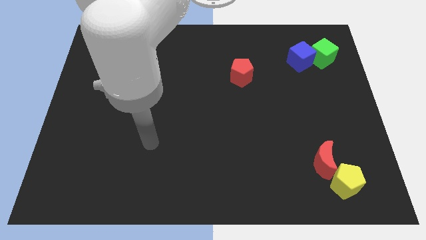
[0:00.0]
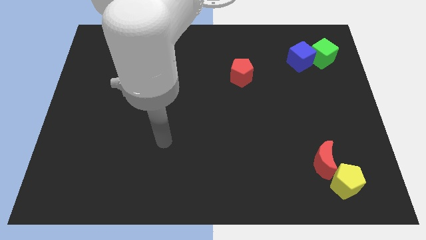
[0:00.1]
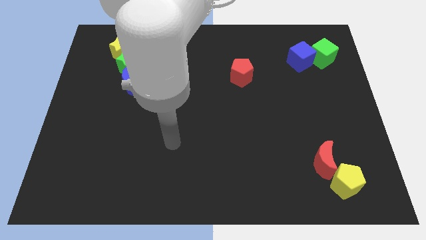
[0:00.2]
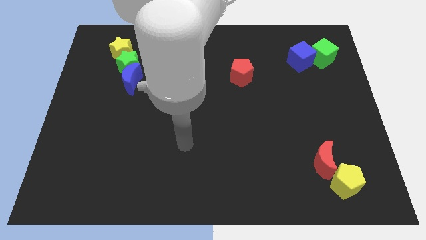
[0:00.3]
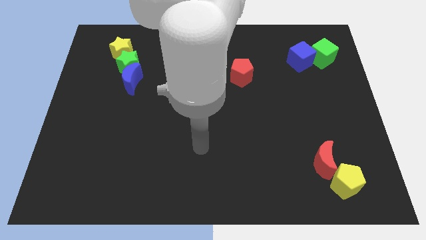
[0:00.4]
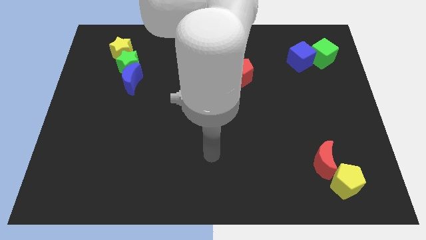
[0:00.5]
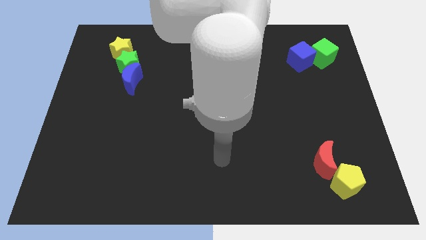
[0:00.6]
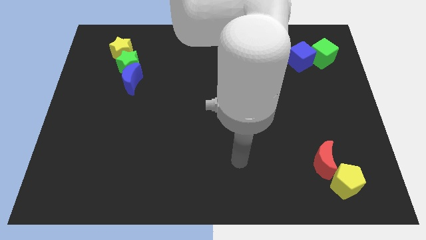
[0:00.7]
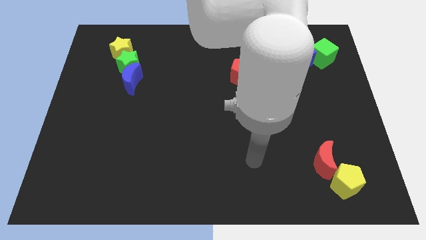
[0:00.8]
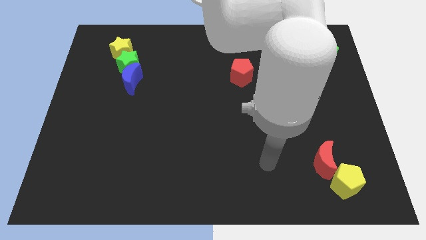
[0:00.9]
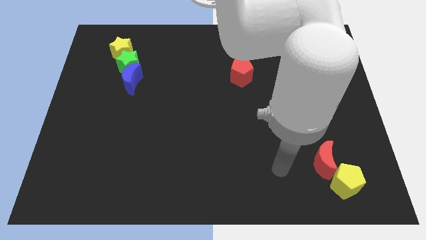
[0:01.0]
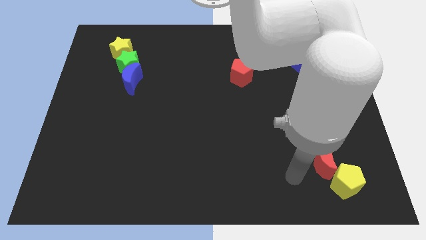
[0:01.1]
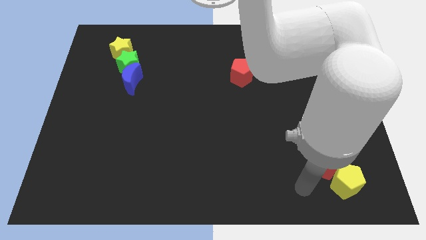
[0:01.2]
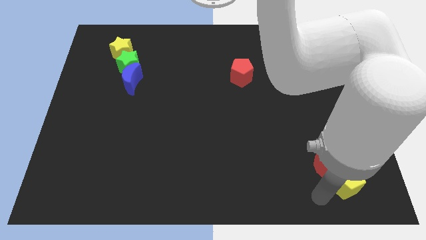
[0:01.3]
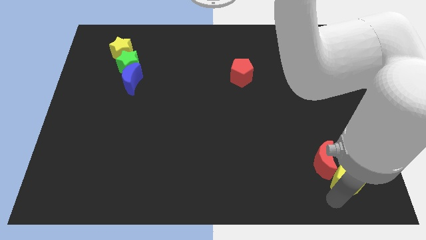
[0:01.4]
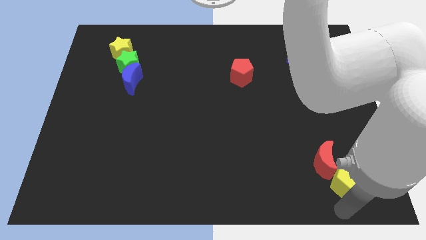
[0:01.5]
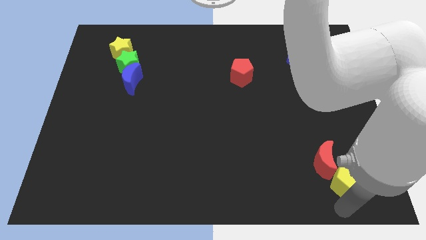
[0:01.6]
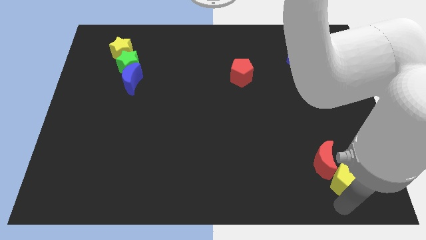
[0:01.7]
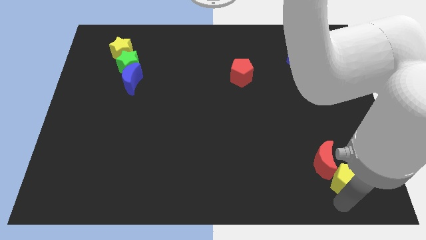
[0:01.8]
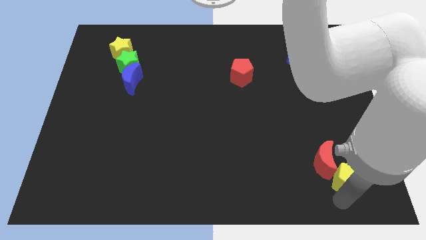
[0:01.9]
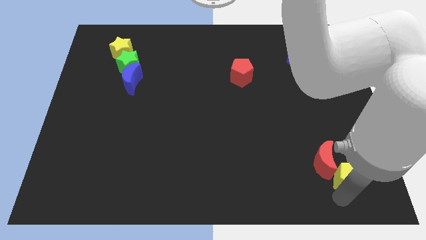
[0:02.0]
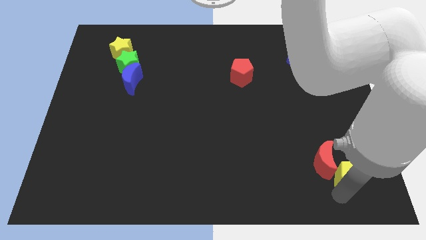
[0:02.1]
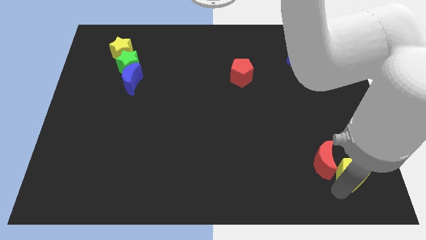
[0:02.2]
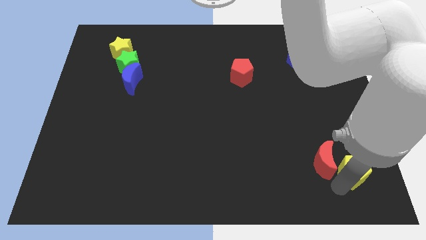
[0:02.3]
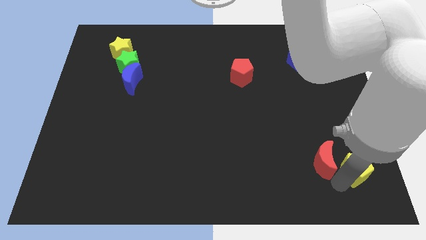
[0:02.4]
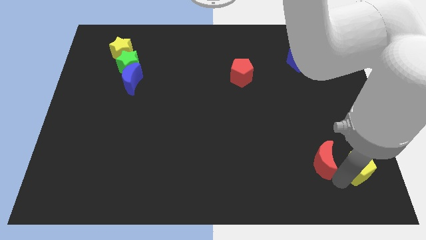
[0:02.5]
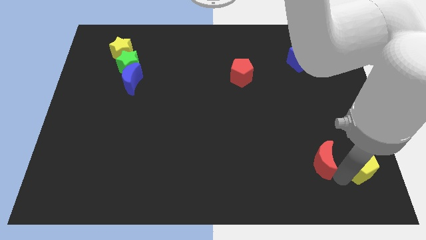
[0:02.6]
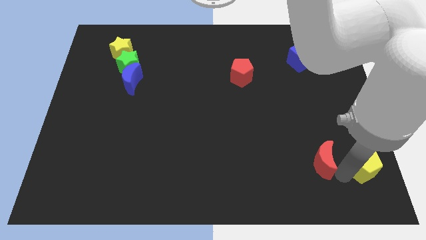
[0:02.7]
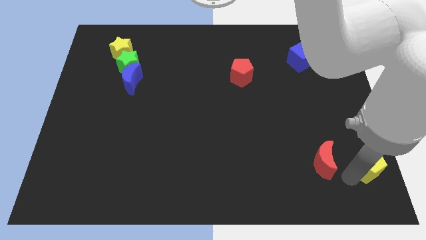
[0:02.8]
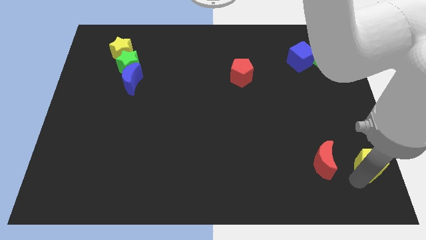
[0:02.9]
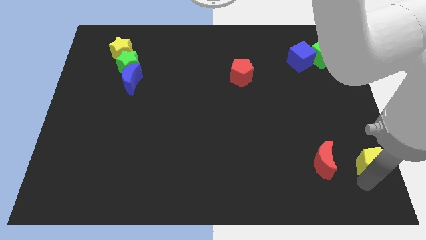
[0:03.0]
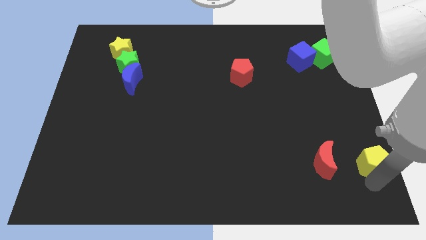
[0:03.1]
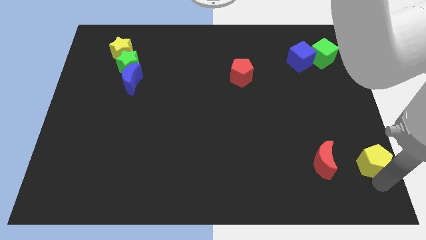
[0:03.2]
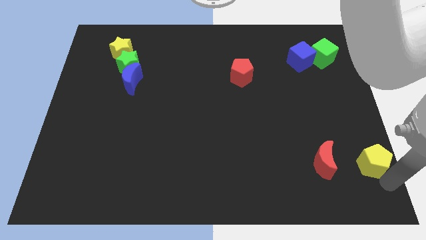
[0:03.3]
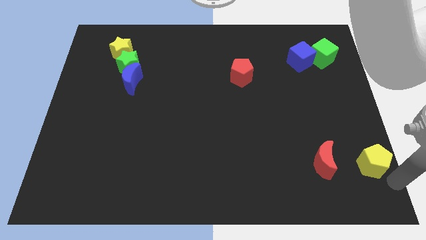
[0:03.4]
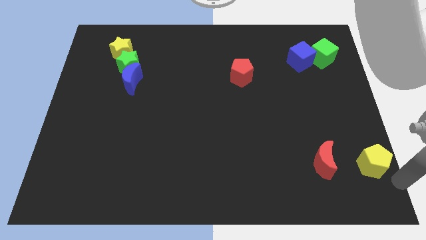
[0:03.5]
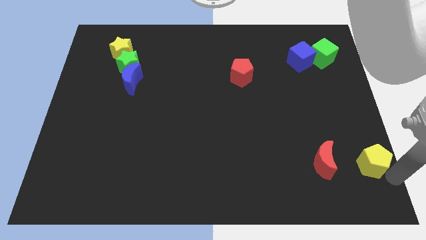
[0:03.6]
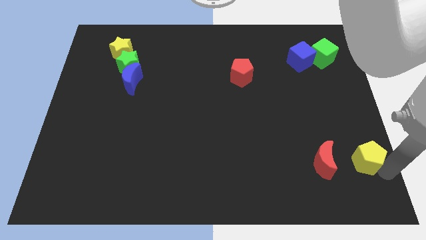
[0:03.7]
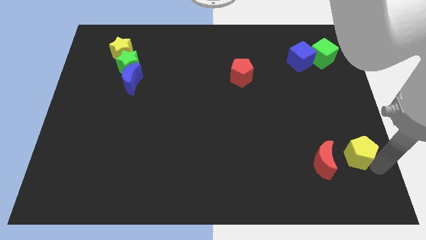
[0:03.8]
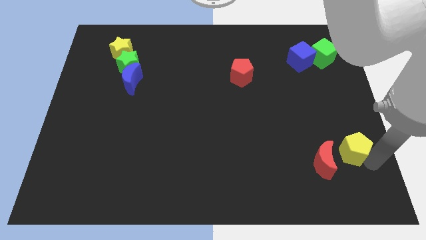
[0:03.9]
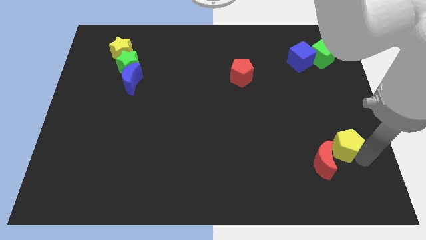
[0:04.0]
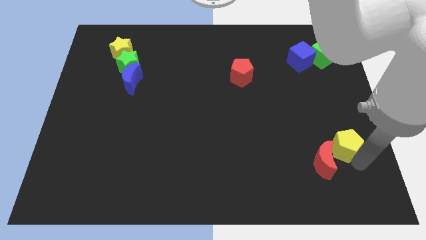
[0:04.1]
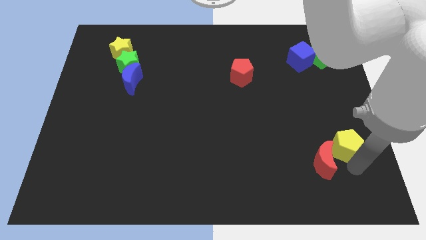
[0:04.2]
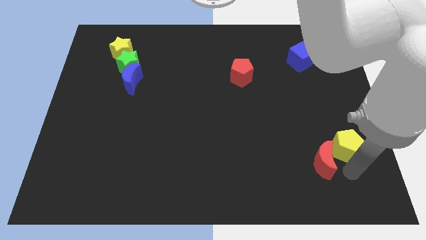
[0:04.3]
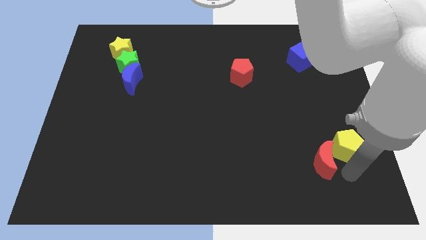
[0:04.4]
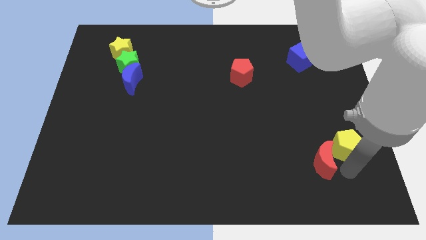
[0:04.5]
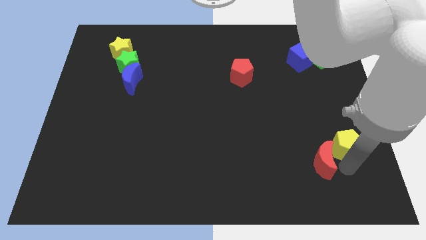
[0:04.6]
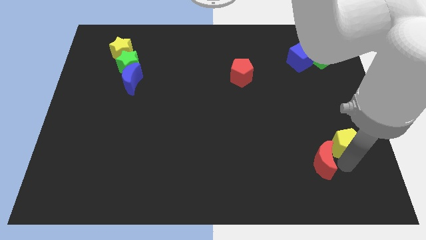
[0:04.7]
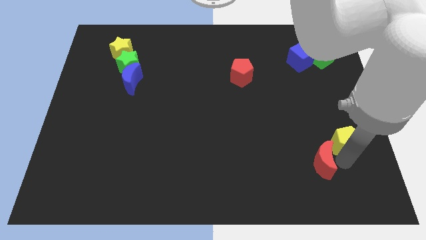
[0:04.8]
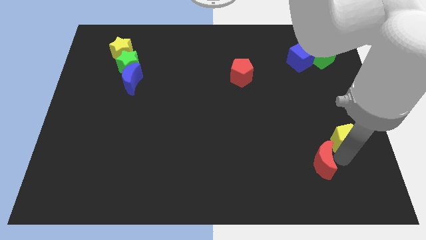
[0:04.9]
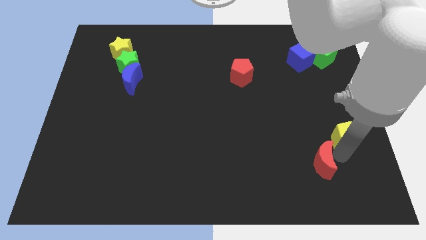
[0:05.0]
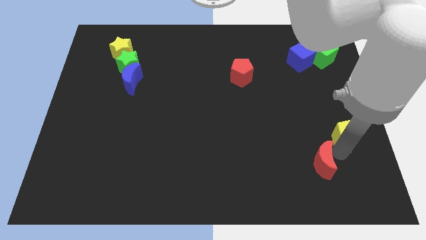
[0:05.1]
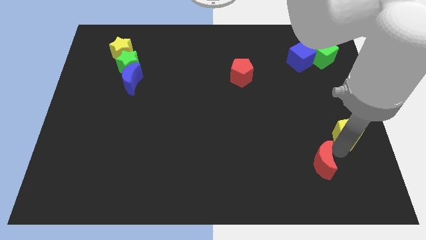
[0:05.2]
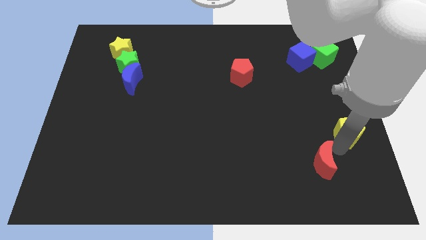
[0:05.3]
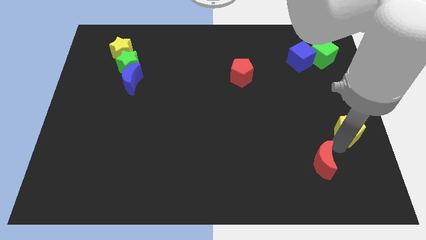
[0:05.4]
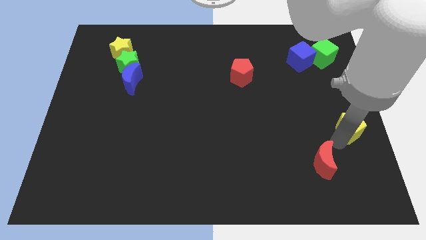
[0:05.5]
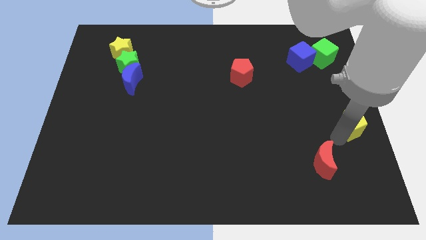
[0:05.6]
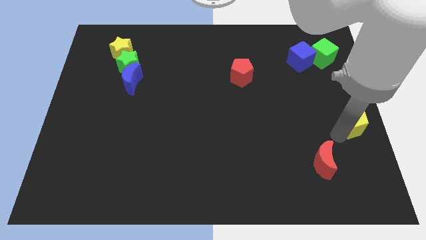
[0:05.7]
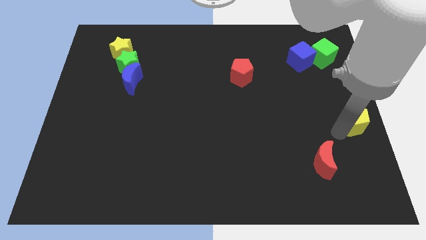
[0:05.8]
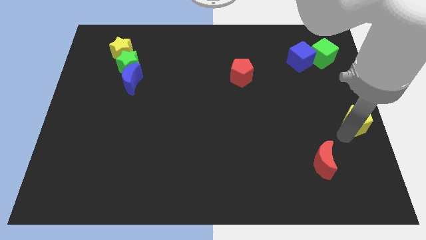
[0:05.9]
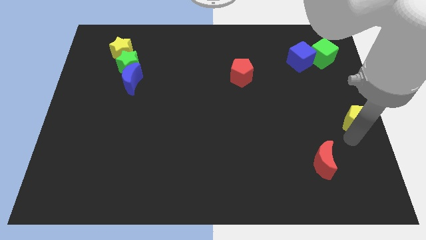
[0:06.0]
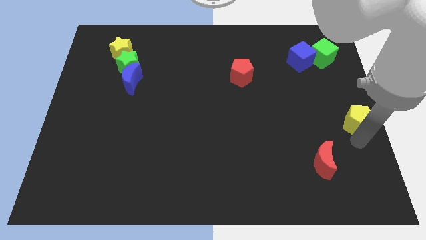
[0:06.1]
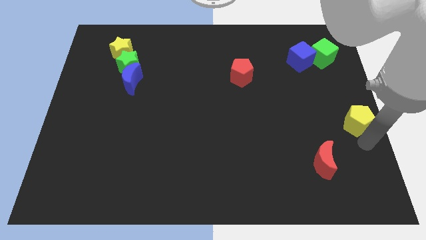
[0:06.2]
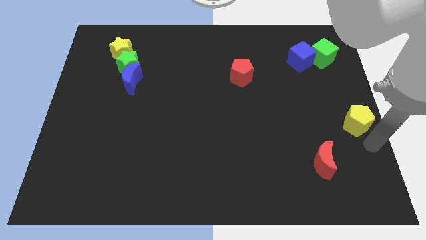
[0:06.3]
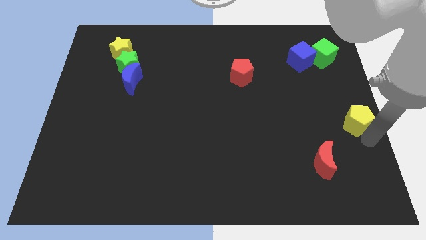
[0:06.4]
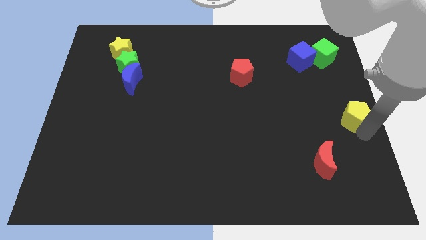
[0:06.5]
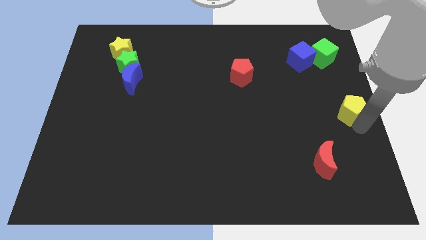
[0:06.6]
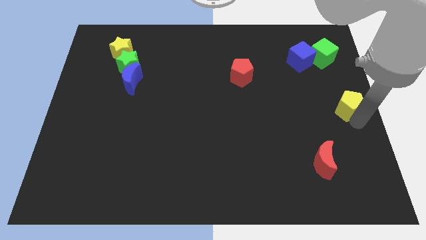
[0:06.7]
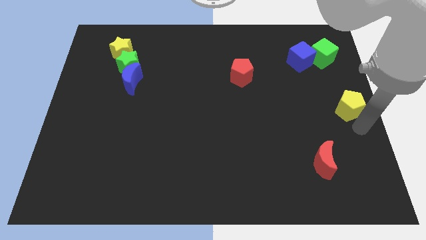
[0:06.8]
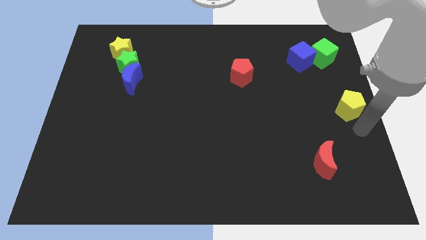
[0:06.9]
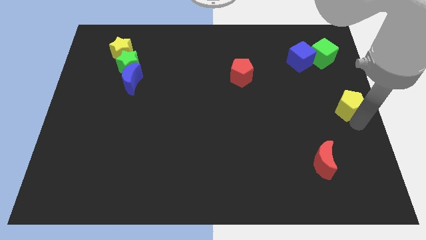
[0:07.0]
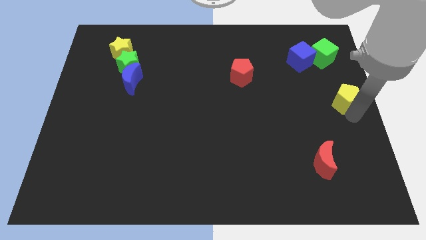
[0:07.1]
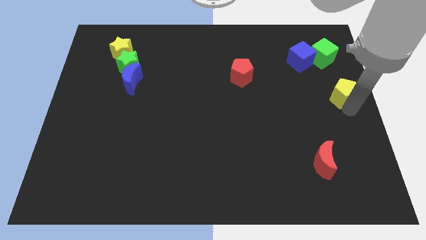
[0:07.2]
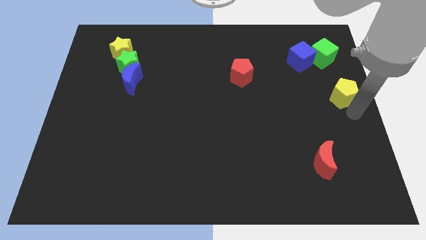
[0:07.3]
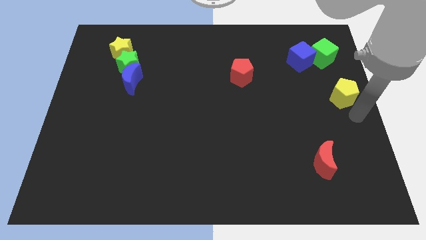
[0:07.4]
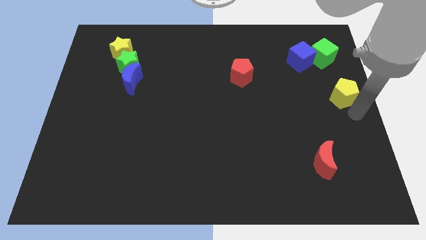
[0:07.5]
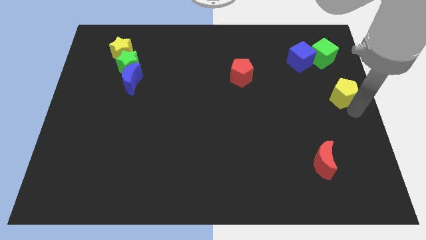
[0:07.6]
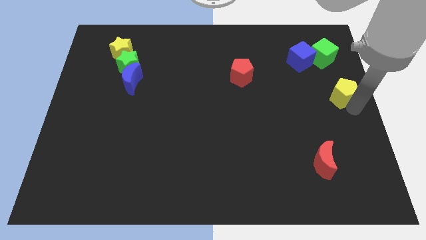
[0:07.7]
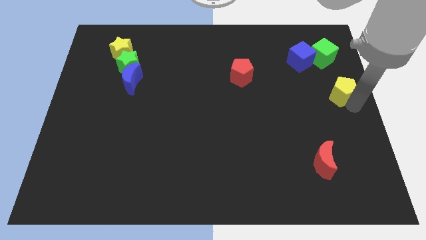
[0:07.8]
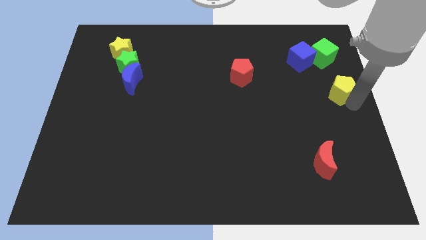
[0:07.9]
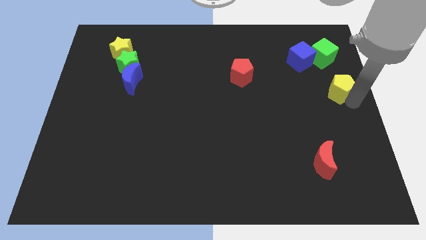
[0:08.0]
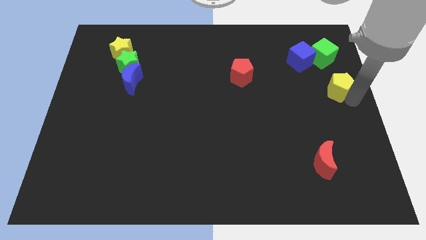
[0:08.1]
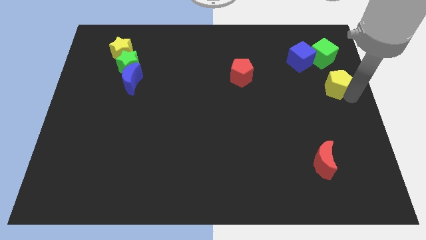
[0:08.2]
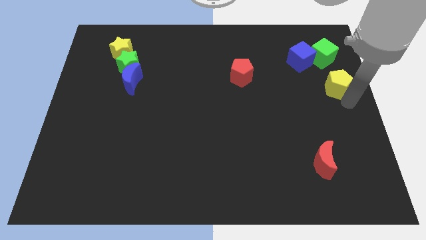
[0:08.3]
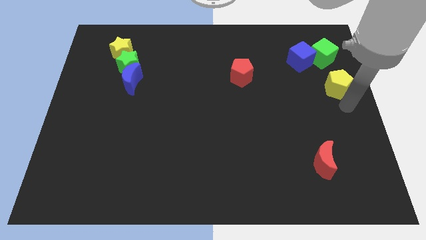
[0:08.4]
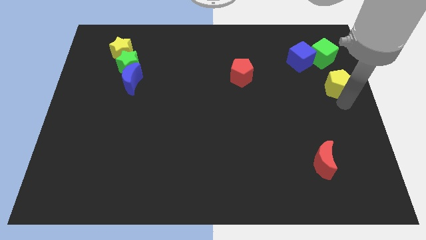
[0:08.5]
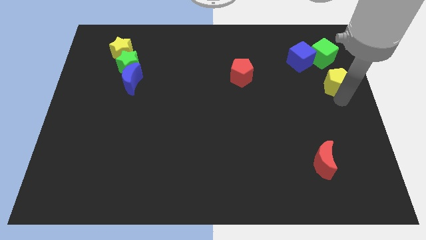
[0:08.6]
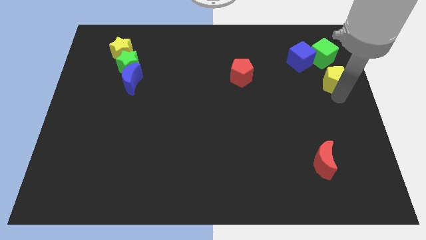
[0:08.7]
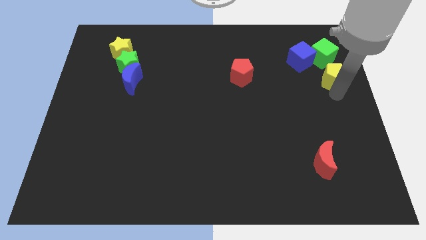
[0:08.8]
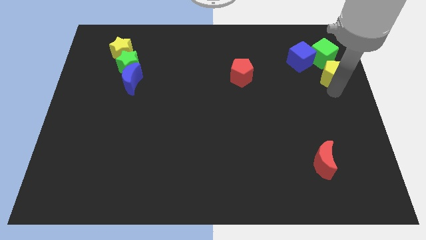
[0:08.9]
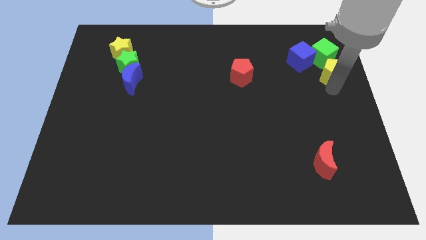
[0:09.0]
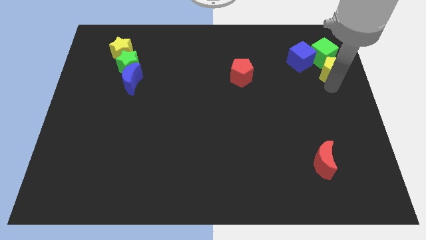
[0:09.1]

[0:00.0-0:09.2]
move the yellow pentagon to the green cube
